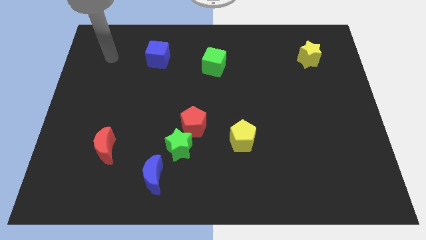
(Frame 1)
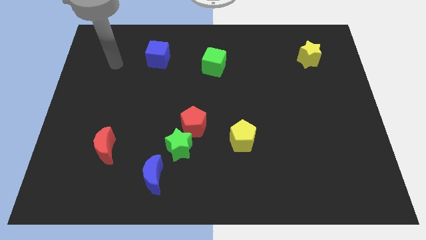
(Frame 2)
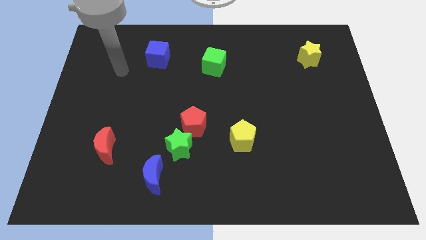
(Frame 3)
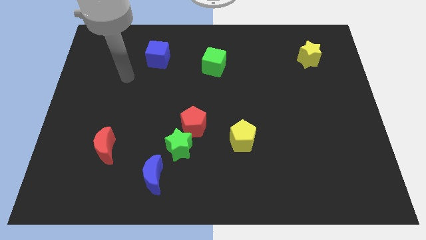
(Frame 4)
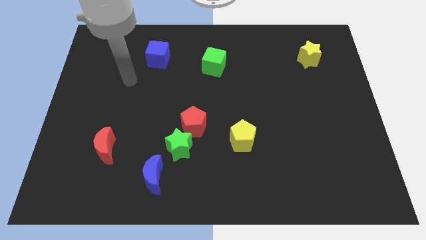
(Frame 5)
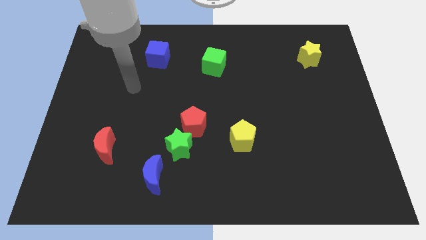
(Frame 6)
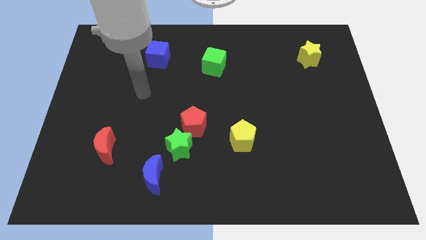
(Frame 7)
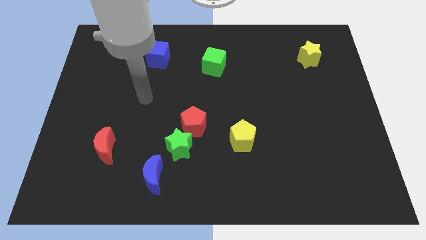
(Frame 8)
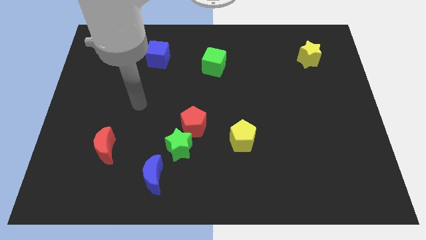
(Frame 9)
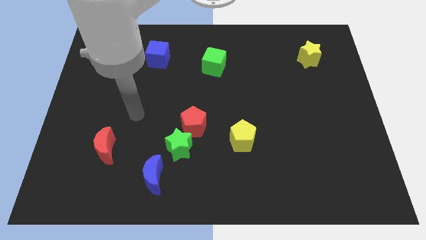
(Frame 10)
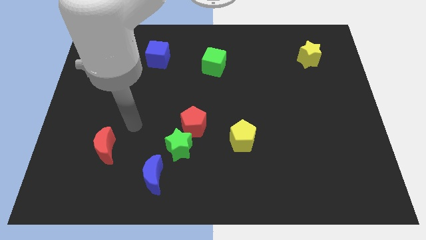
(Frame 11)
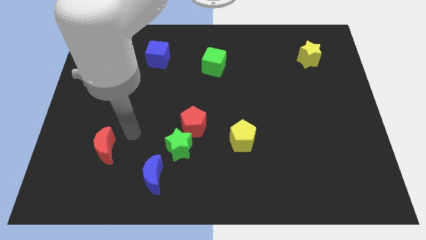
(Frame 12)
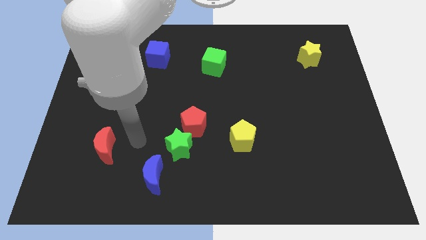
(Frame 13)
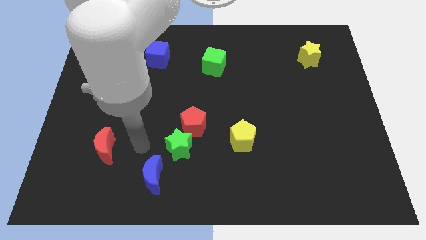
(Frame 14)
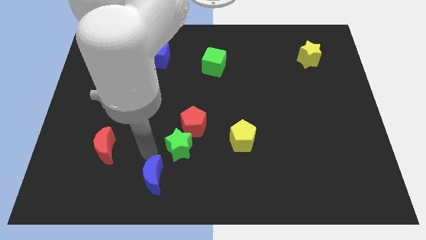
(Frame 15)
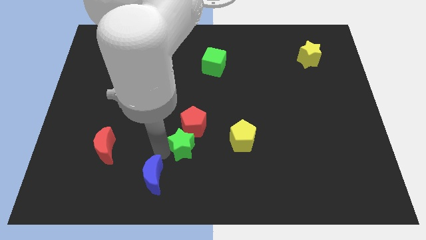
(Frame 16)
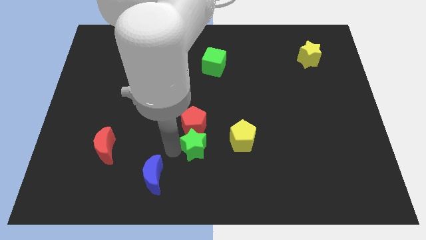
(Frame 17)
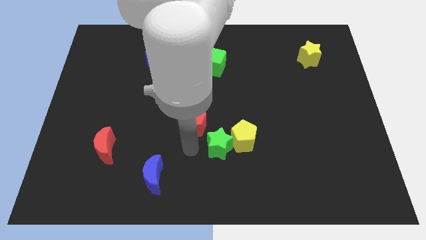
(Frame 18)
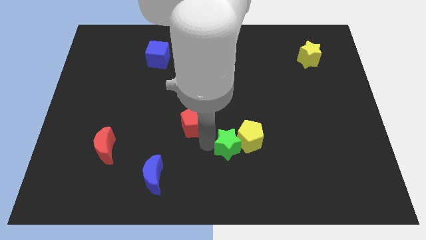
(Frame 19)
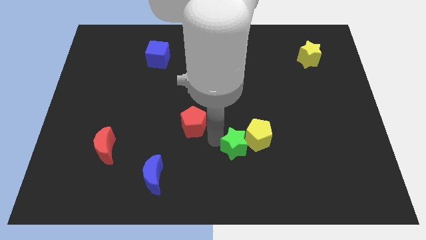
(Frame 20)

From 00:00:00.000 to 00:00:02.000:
separate the red pentagon from the green star

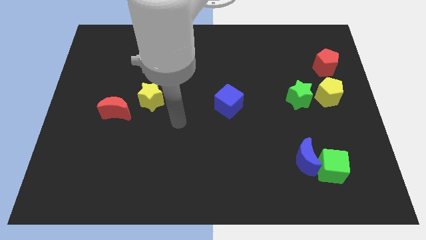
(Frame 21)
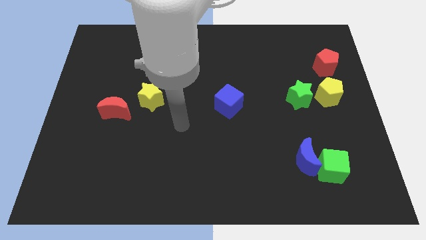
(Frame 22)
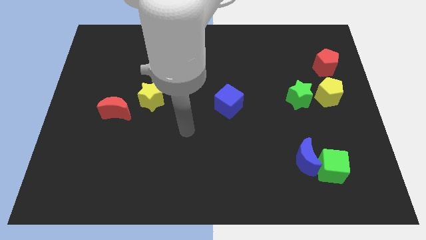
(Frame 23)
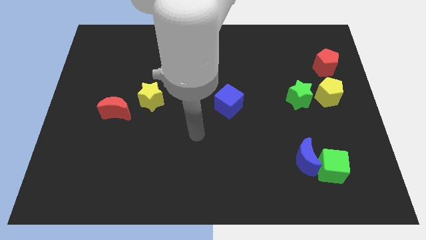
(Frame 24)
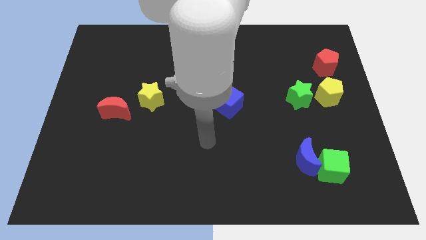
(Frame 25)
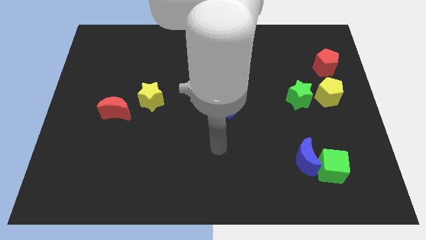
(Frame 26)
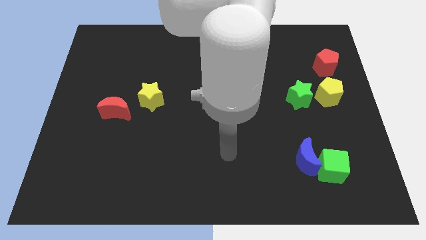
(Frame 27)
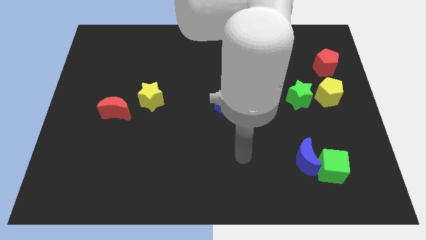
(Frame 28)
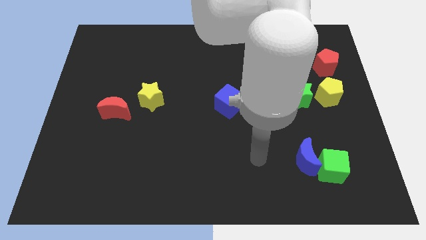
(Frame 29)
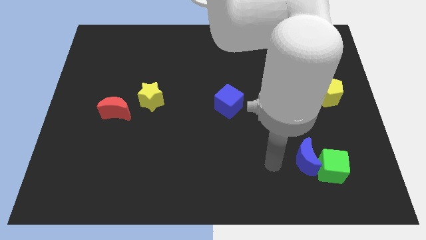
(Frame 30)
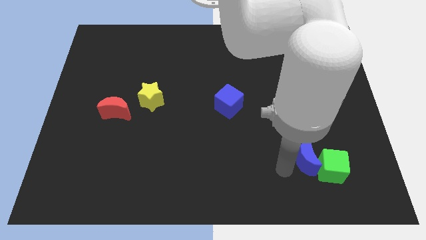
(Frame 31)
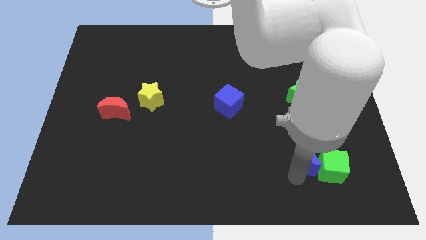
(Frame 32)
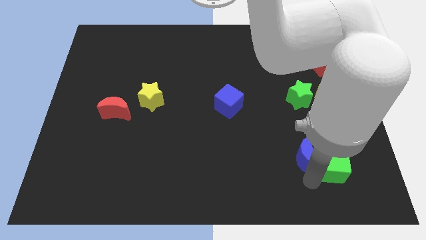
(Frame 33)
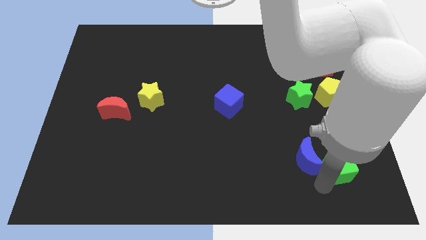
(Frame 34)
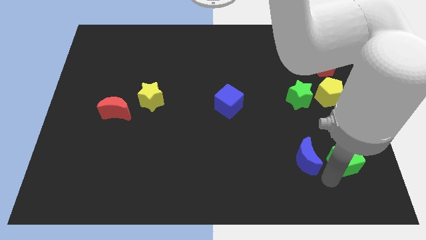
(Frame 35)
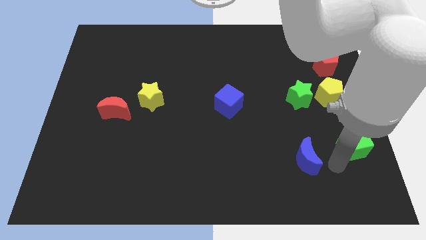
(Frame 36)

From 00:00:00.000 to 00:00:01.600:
move the blue moon away from the green cube

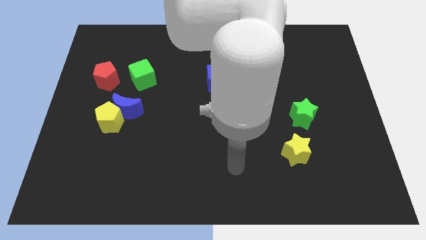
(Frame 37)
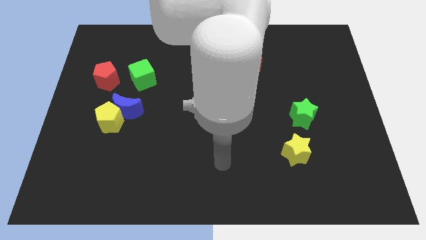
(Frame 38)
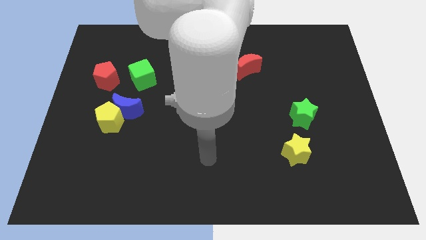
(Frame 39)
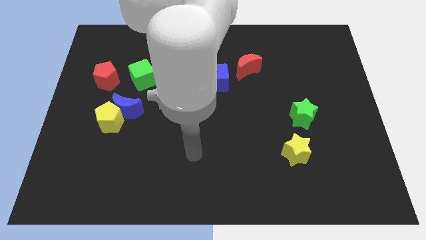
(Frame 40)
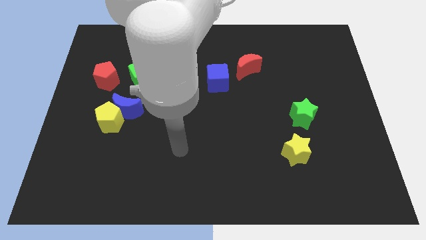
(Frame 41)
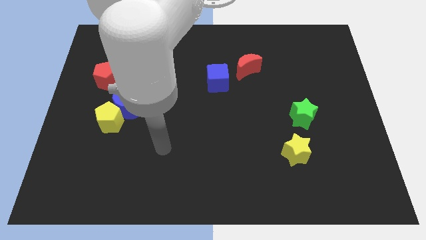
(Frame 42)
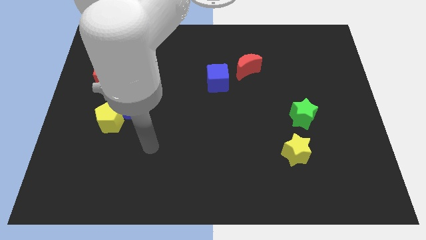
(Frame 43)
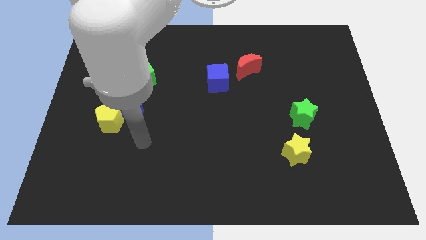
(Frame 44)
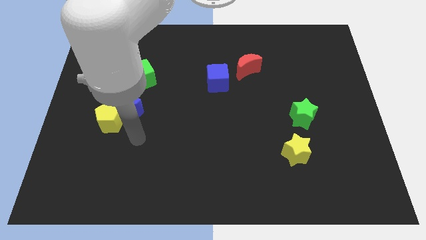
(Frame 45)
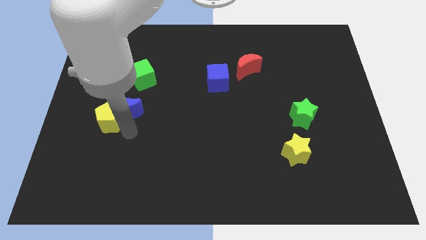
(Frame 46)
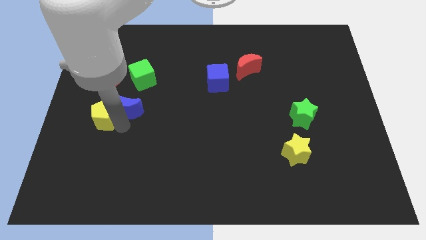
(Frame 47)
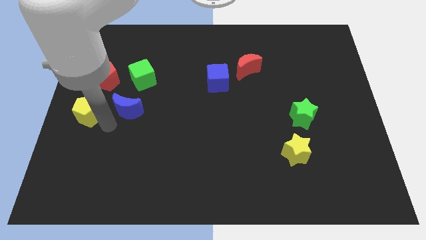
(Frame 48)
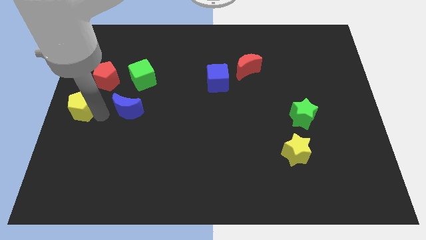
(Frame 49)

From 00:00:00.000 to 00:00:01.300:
separate the blue moon from the yellow pentagon

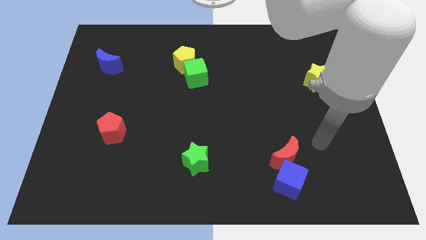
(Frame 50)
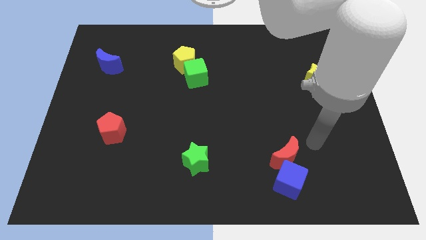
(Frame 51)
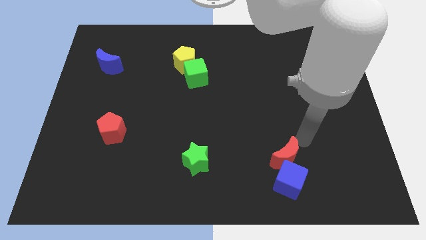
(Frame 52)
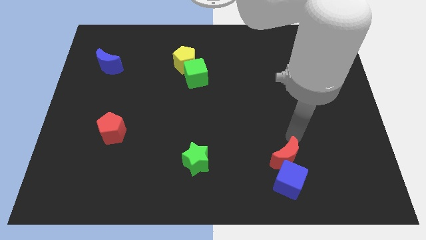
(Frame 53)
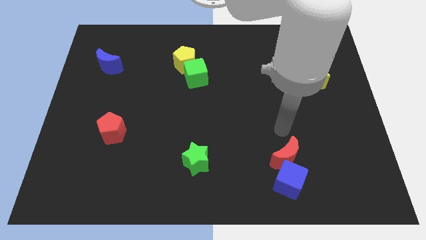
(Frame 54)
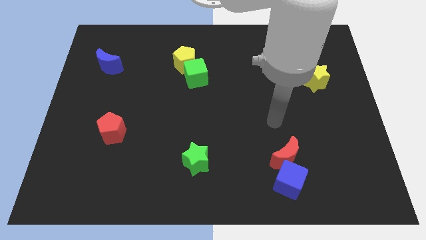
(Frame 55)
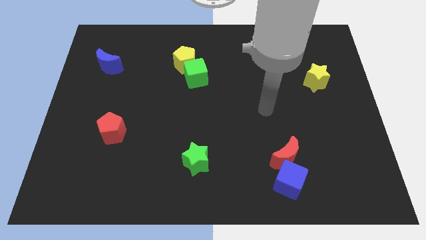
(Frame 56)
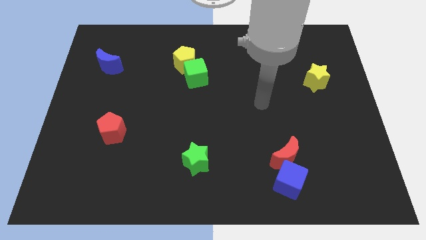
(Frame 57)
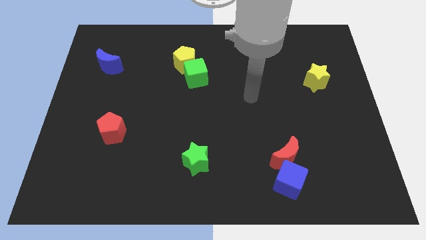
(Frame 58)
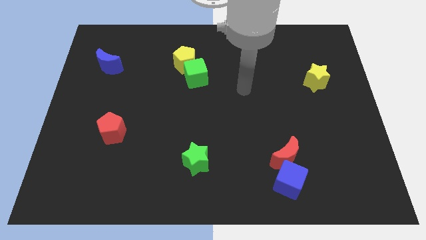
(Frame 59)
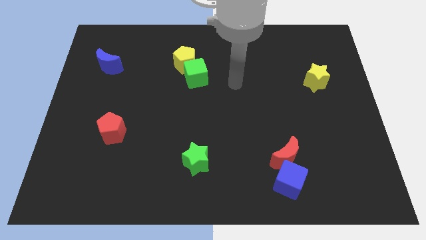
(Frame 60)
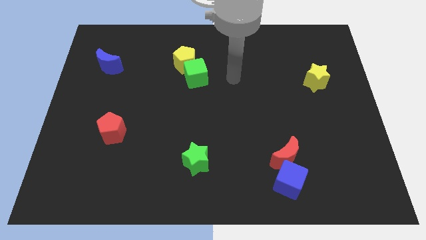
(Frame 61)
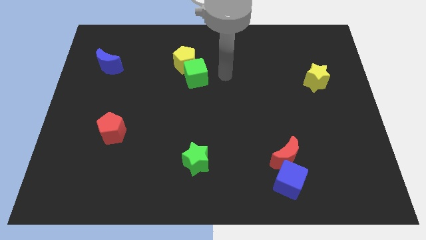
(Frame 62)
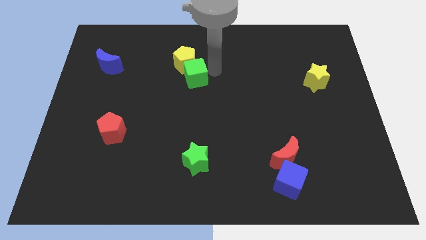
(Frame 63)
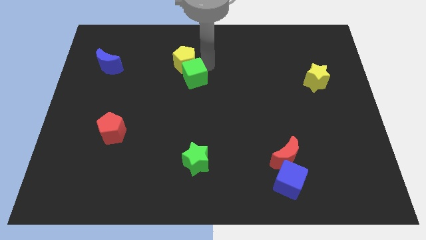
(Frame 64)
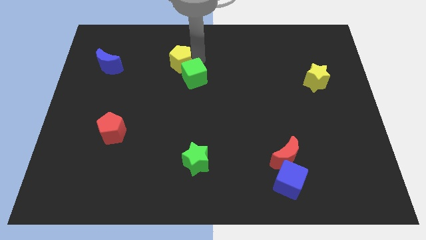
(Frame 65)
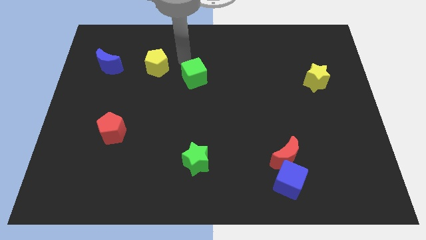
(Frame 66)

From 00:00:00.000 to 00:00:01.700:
pull the green cube apart from the yellow pentagon

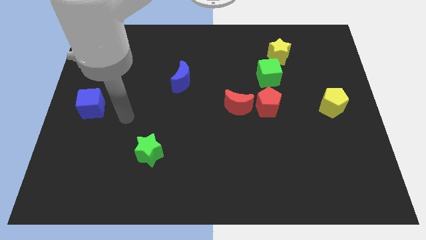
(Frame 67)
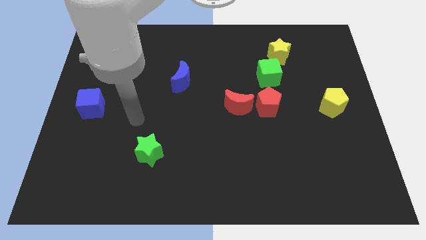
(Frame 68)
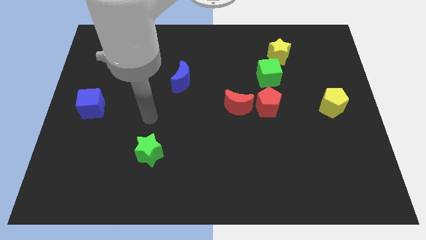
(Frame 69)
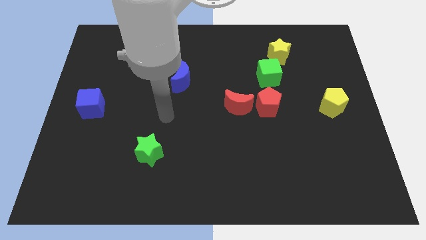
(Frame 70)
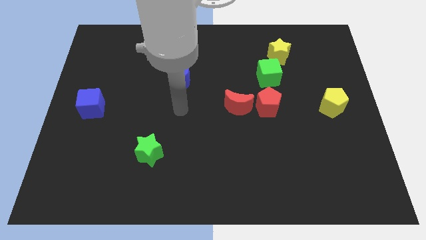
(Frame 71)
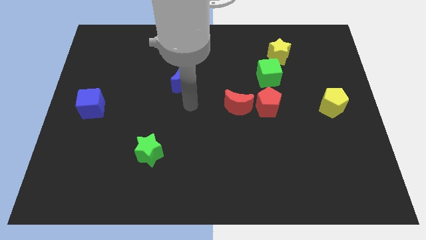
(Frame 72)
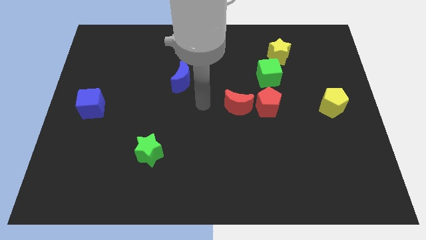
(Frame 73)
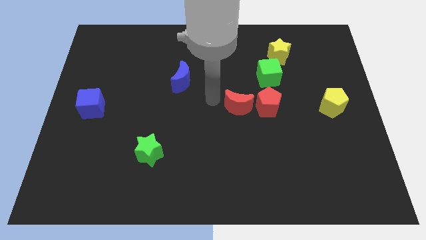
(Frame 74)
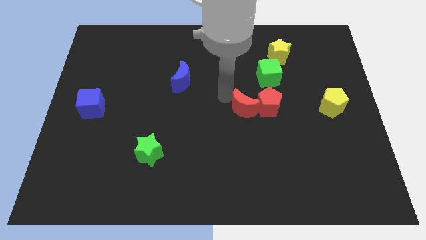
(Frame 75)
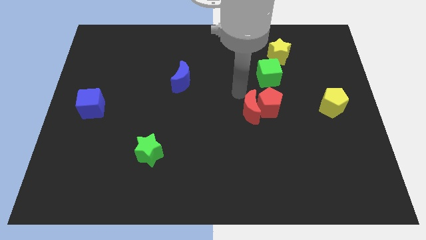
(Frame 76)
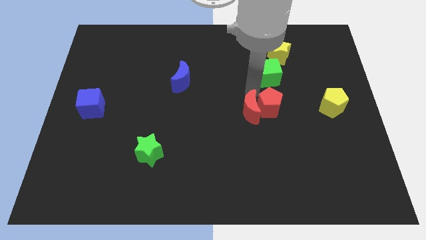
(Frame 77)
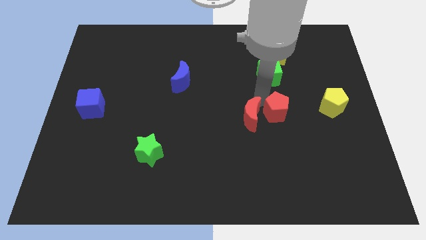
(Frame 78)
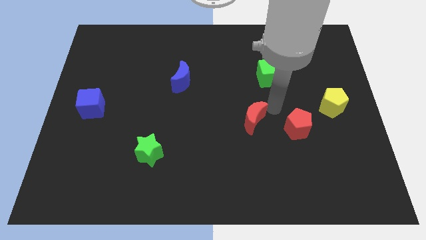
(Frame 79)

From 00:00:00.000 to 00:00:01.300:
move the red moon away from the red pentagon

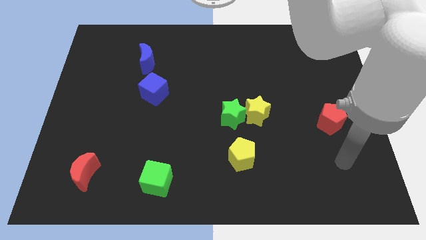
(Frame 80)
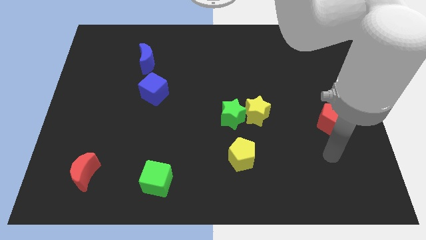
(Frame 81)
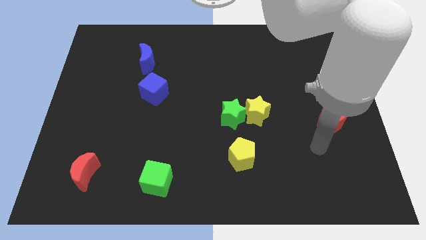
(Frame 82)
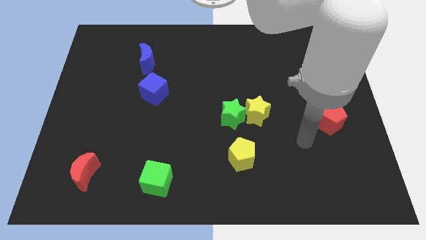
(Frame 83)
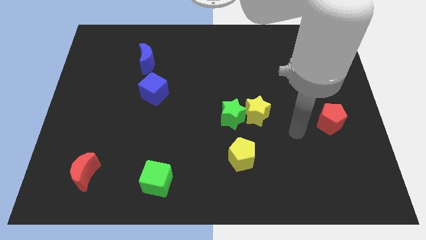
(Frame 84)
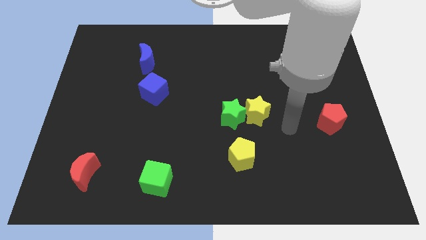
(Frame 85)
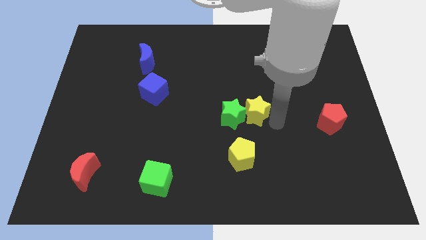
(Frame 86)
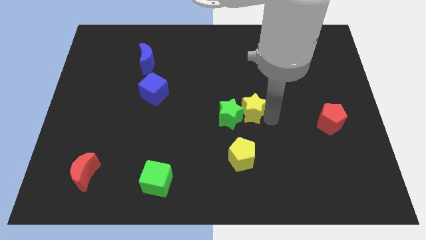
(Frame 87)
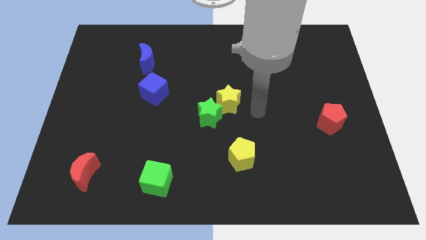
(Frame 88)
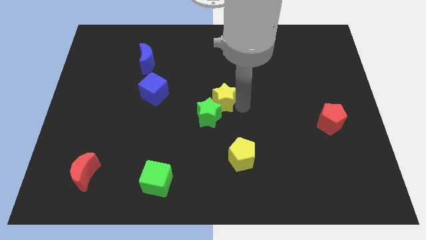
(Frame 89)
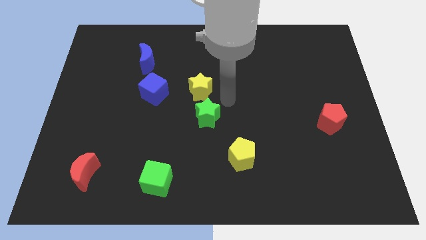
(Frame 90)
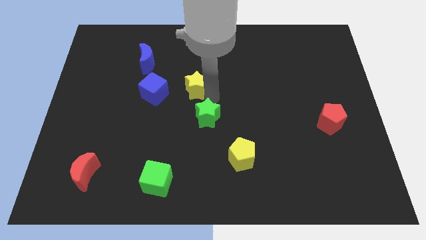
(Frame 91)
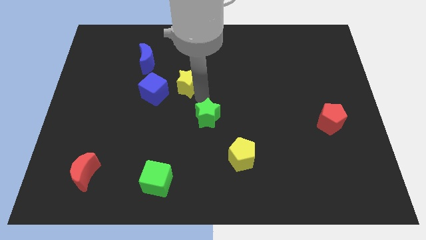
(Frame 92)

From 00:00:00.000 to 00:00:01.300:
pull the green star apart from the yellow star
